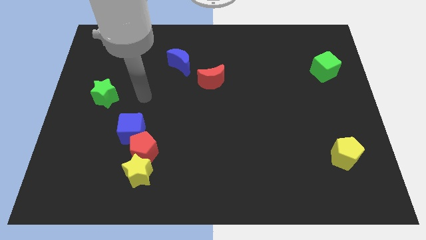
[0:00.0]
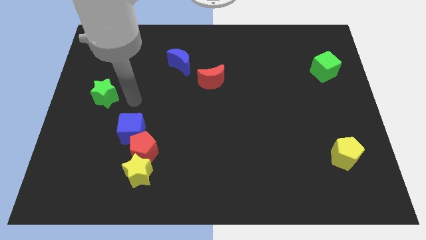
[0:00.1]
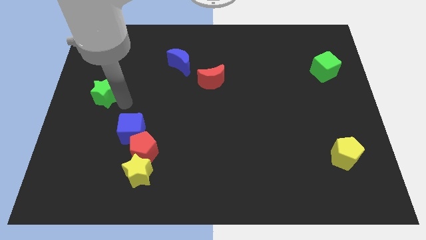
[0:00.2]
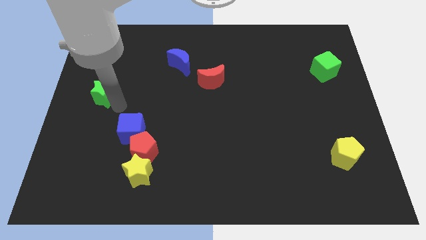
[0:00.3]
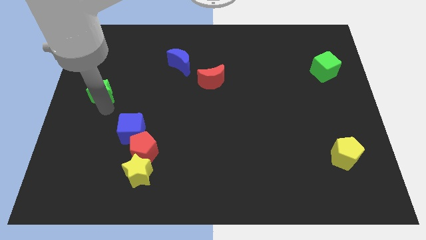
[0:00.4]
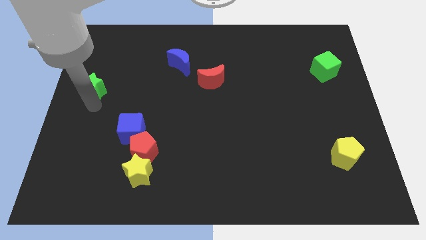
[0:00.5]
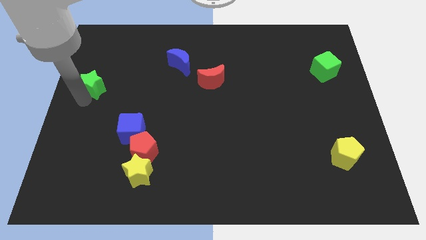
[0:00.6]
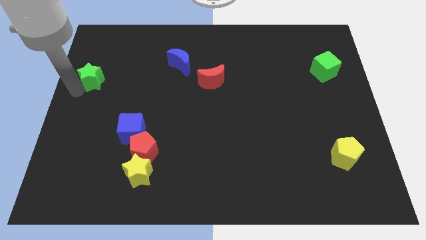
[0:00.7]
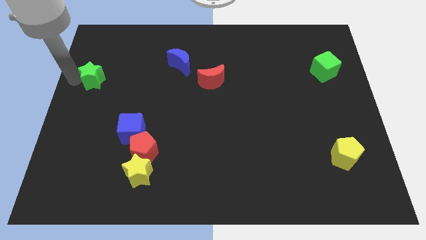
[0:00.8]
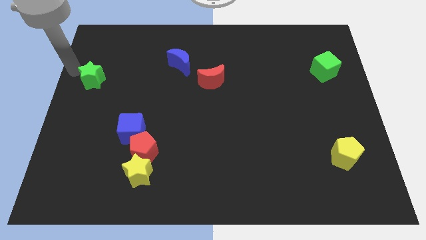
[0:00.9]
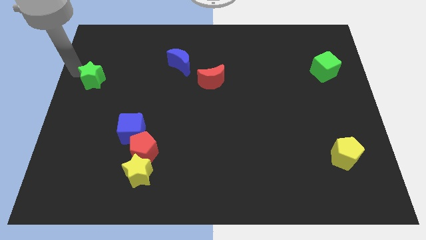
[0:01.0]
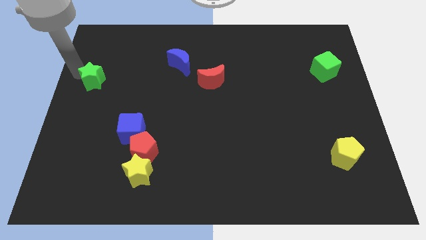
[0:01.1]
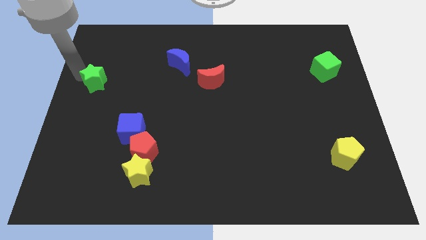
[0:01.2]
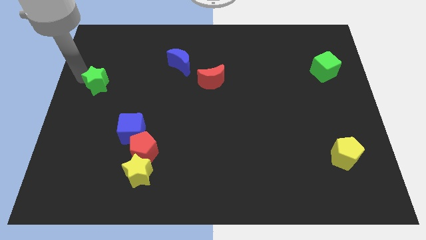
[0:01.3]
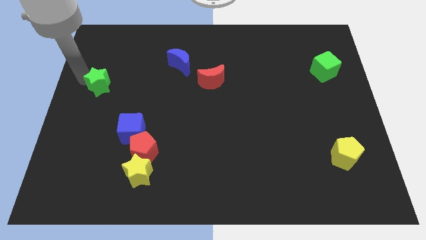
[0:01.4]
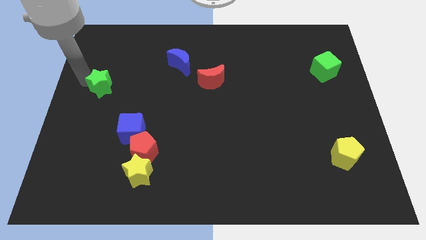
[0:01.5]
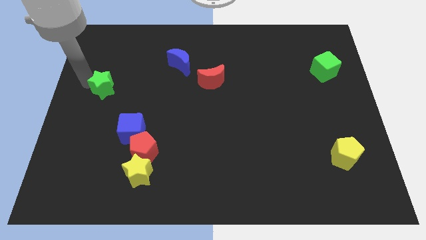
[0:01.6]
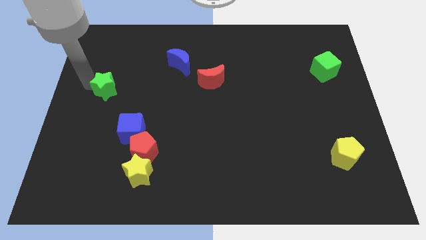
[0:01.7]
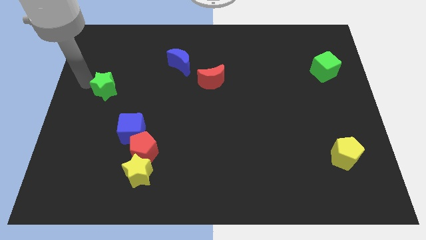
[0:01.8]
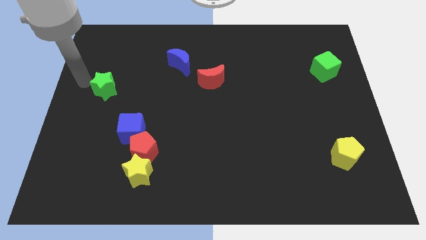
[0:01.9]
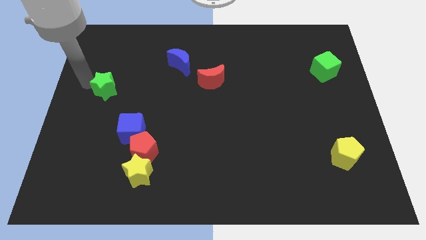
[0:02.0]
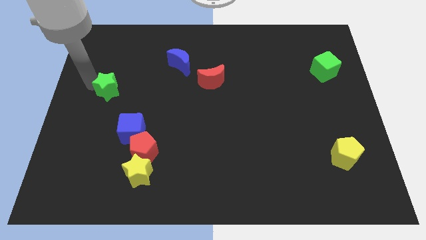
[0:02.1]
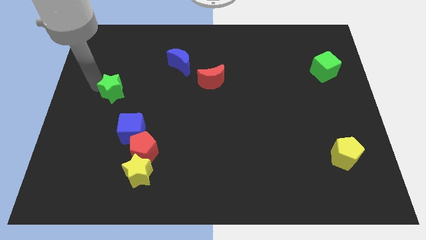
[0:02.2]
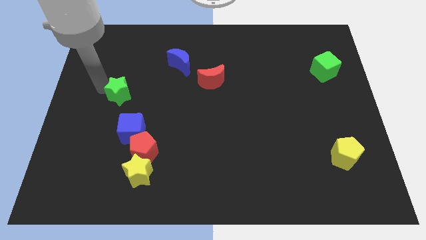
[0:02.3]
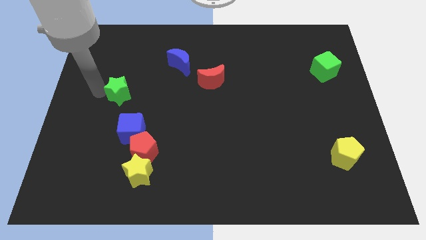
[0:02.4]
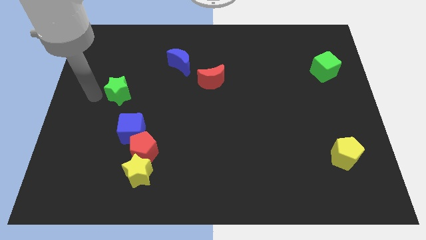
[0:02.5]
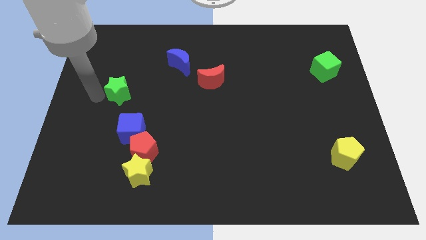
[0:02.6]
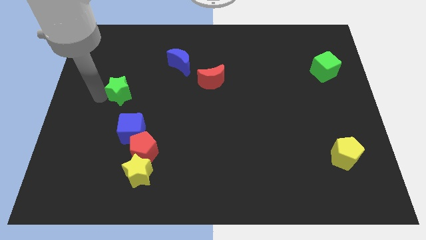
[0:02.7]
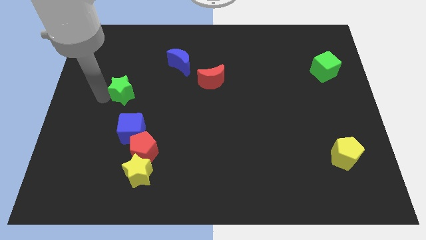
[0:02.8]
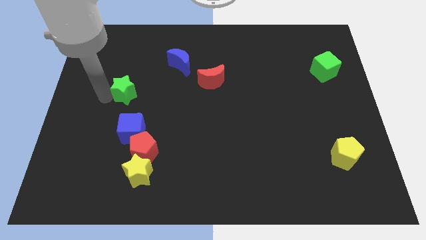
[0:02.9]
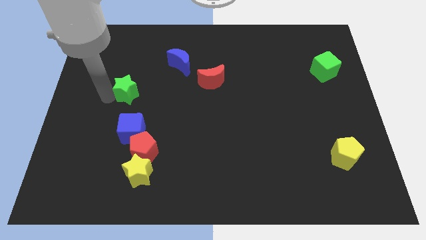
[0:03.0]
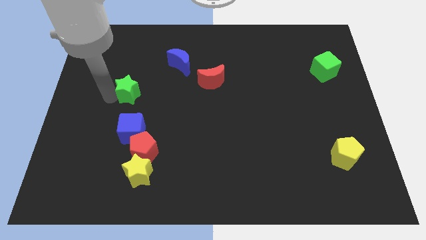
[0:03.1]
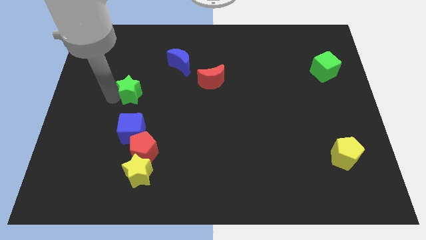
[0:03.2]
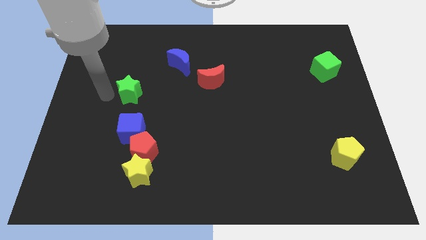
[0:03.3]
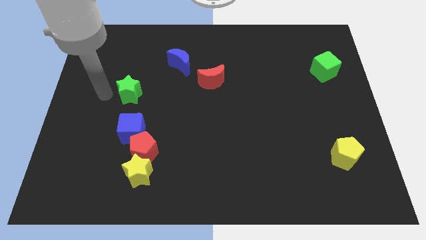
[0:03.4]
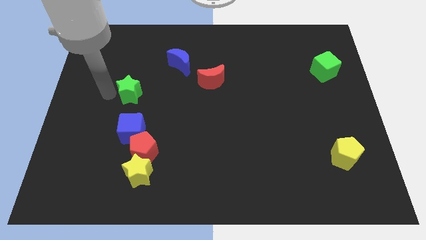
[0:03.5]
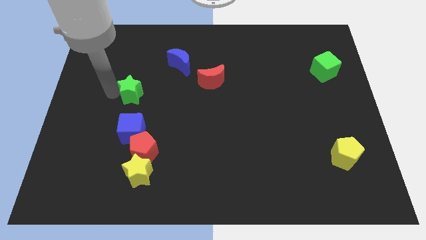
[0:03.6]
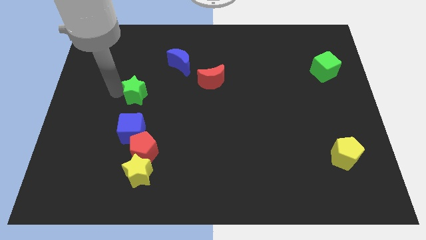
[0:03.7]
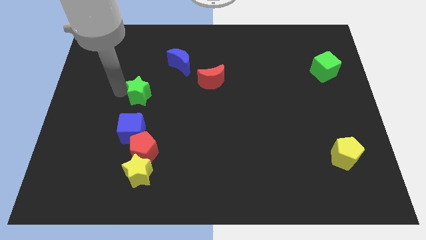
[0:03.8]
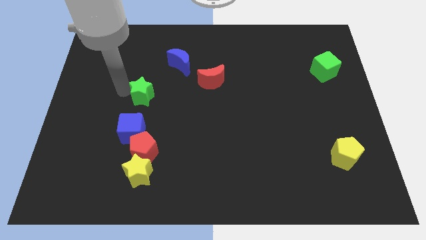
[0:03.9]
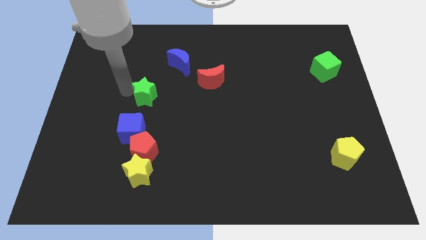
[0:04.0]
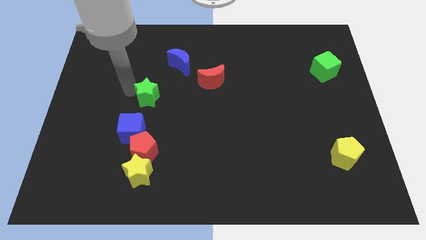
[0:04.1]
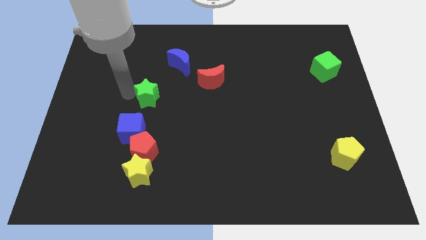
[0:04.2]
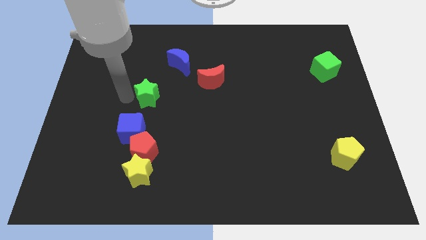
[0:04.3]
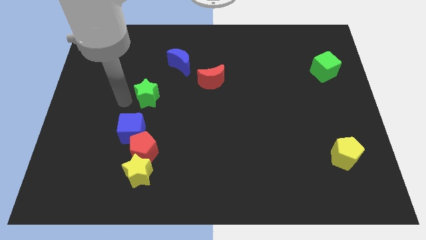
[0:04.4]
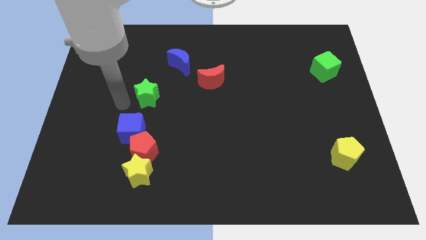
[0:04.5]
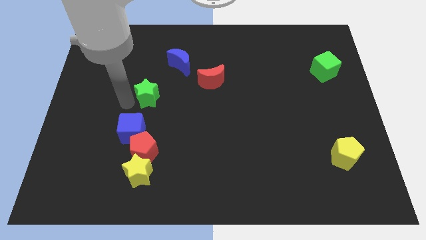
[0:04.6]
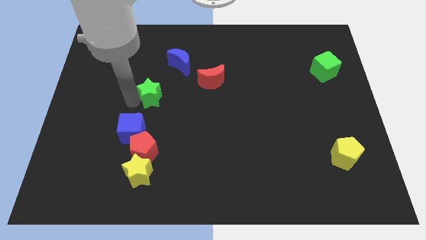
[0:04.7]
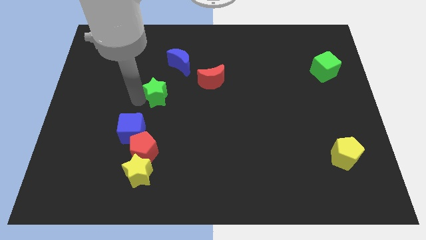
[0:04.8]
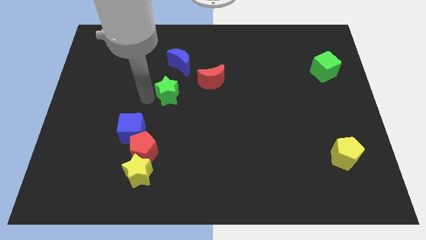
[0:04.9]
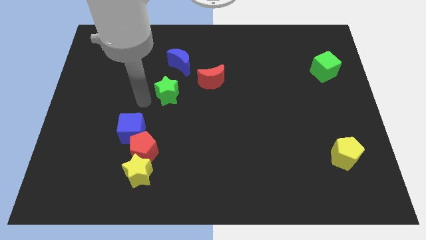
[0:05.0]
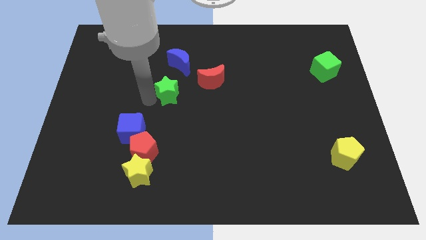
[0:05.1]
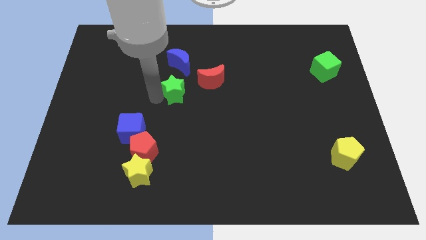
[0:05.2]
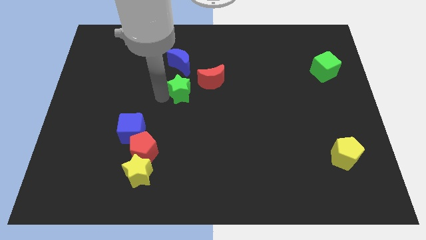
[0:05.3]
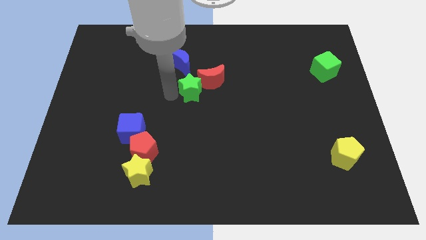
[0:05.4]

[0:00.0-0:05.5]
push the green star close to the red moon

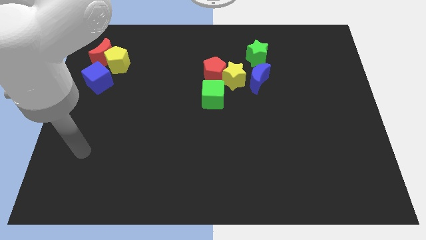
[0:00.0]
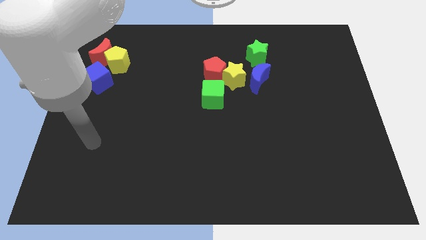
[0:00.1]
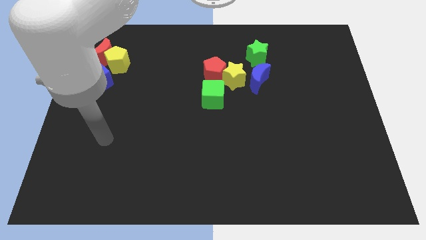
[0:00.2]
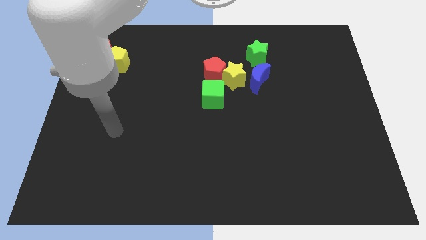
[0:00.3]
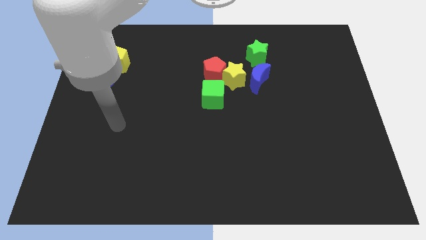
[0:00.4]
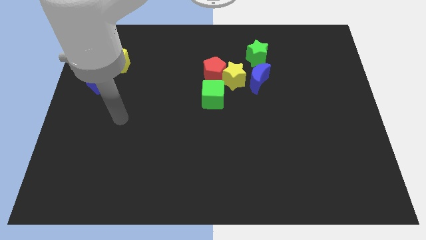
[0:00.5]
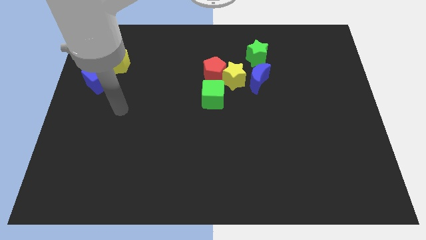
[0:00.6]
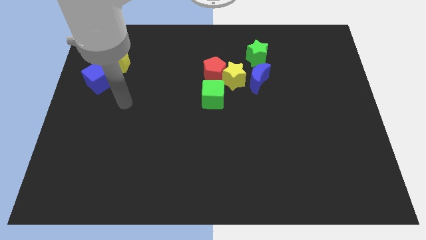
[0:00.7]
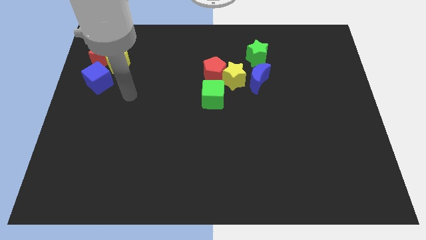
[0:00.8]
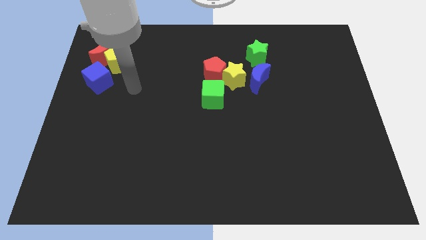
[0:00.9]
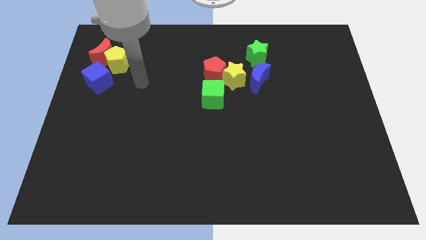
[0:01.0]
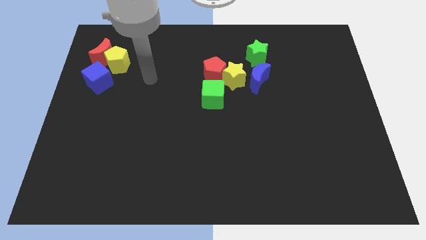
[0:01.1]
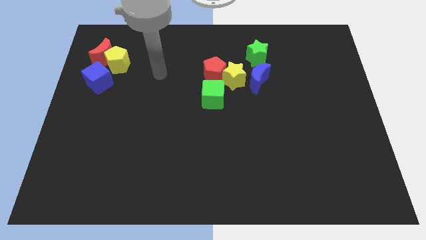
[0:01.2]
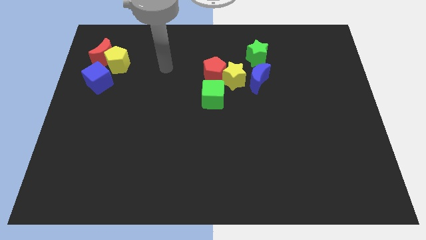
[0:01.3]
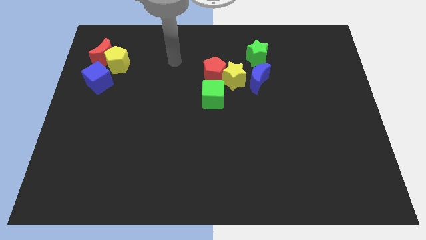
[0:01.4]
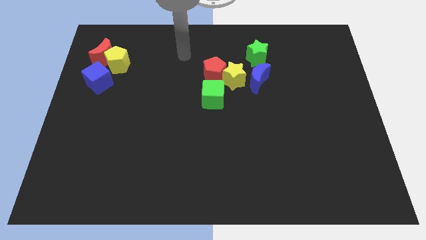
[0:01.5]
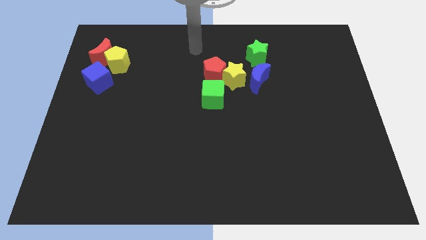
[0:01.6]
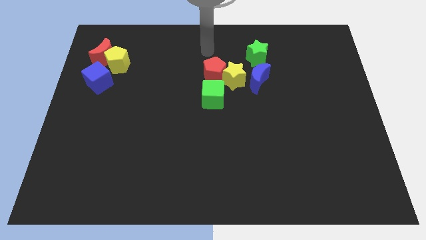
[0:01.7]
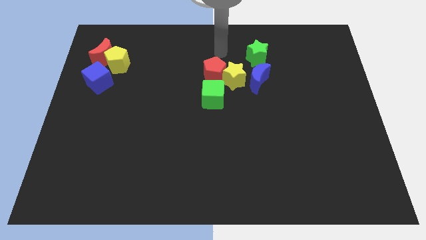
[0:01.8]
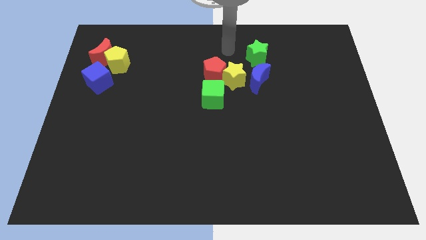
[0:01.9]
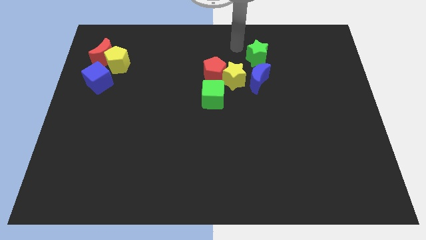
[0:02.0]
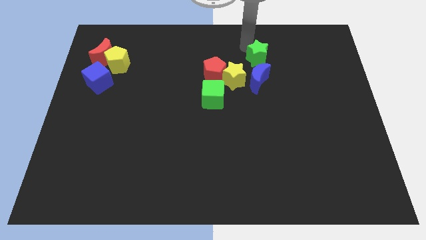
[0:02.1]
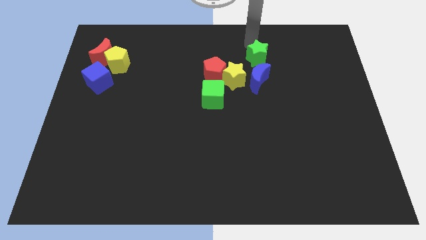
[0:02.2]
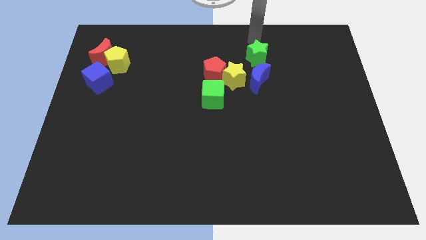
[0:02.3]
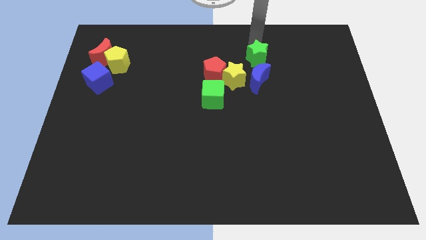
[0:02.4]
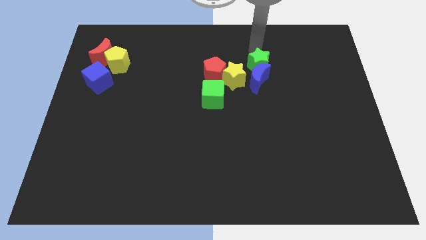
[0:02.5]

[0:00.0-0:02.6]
put the green star to the blue moon
